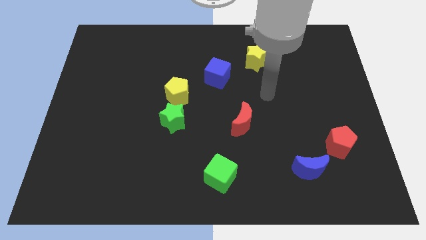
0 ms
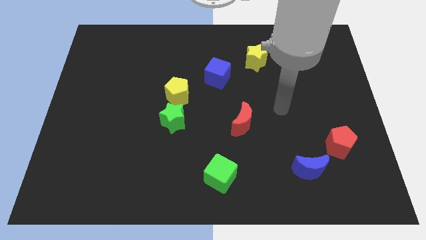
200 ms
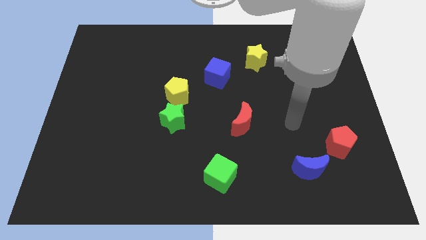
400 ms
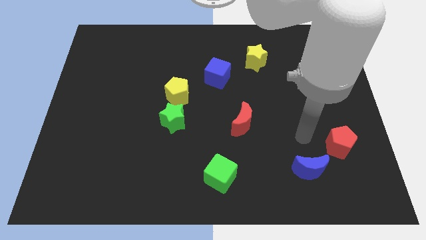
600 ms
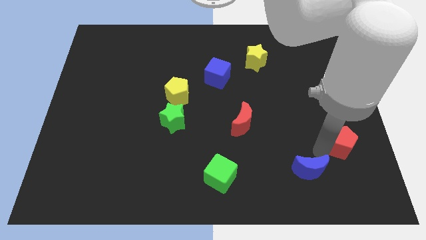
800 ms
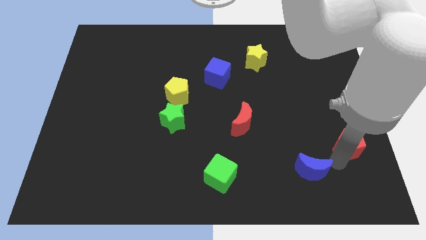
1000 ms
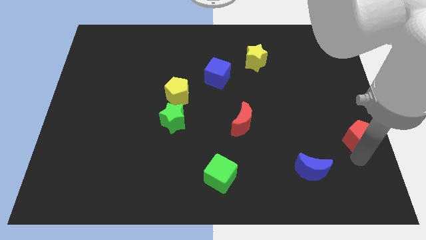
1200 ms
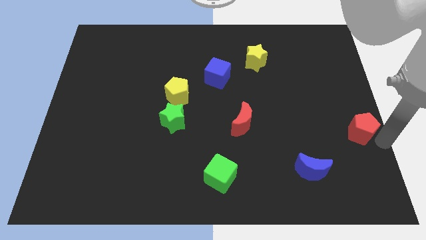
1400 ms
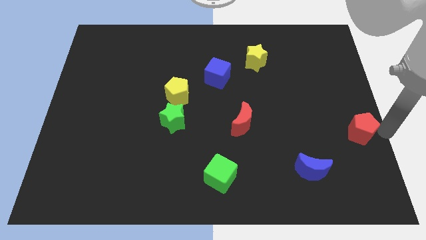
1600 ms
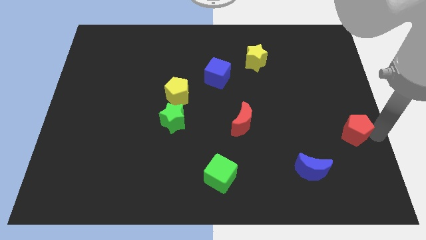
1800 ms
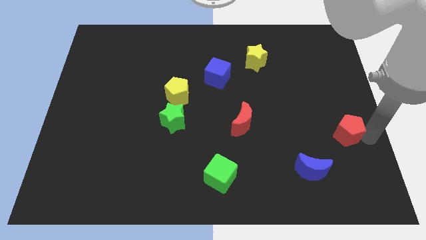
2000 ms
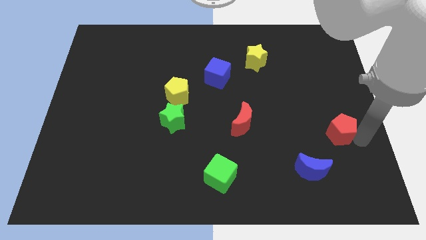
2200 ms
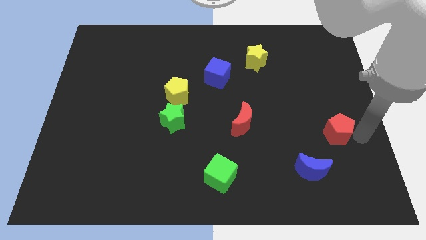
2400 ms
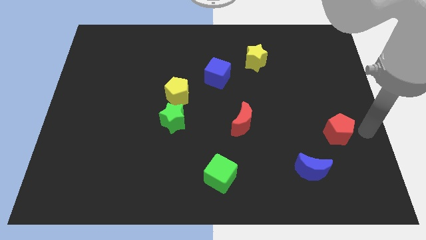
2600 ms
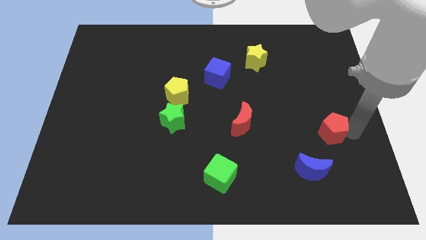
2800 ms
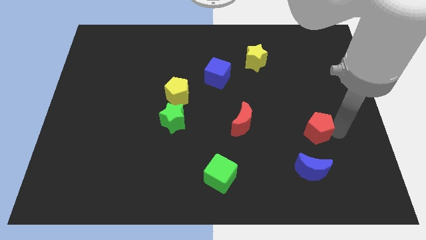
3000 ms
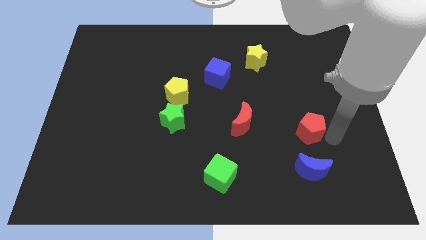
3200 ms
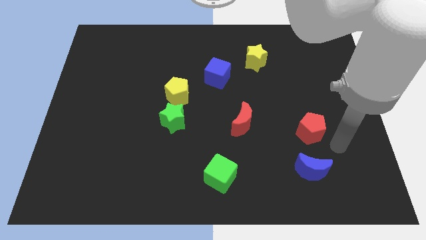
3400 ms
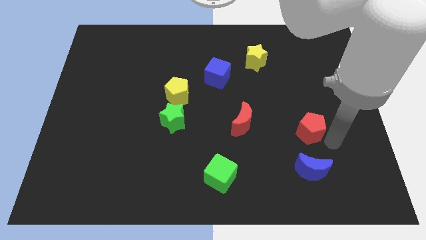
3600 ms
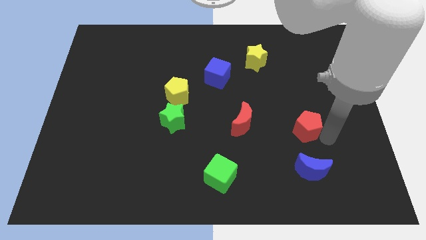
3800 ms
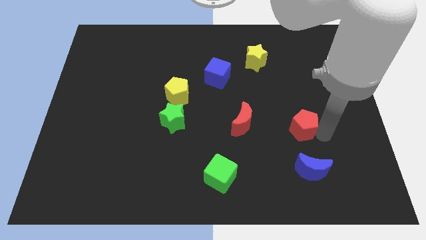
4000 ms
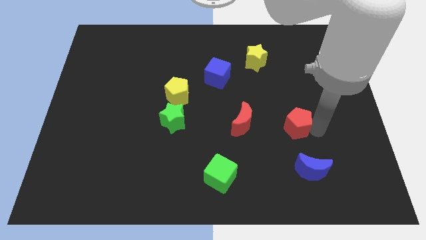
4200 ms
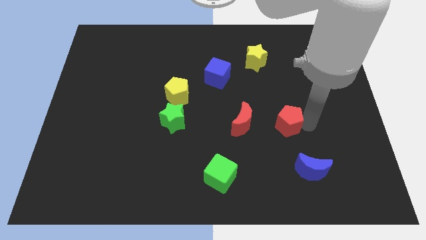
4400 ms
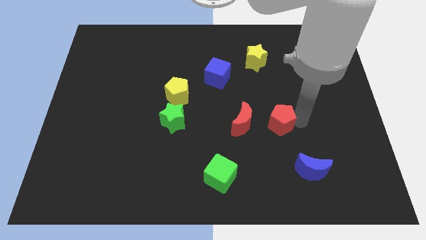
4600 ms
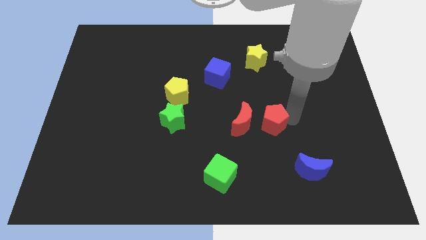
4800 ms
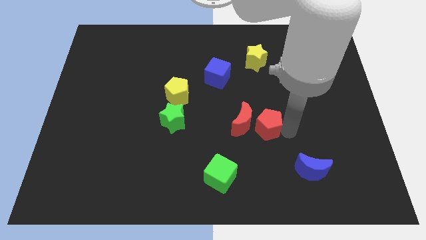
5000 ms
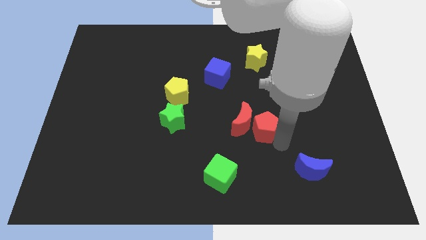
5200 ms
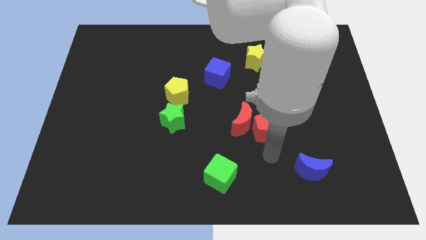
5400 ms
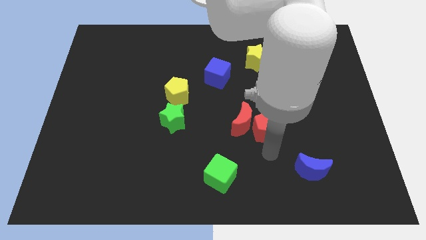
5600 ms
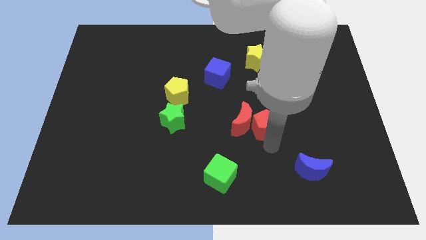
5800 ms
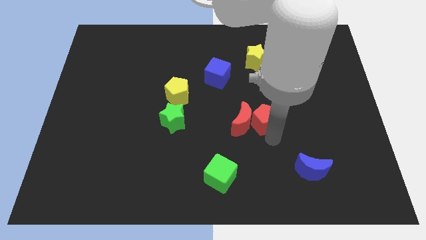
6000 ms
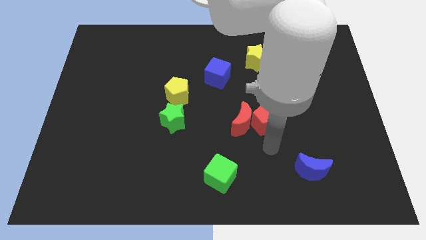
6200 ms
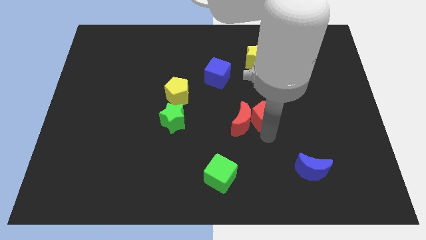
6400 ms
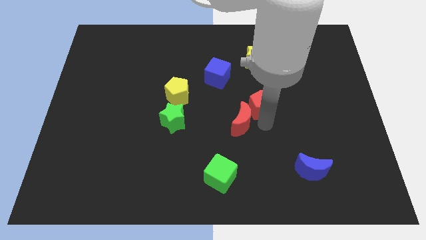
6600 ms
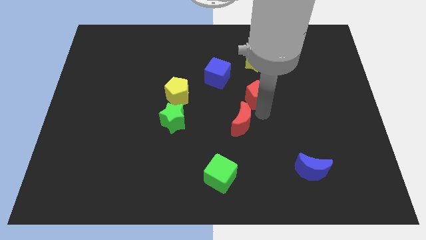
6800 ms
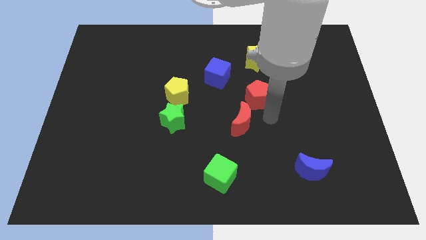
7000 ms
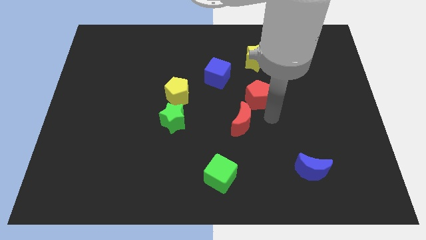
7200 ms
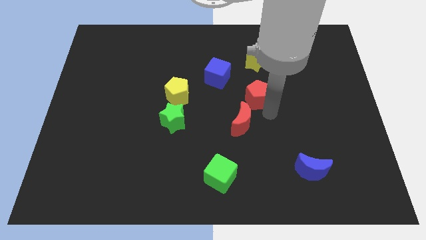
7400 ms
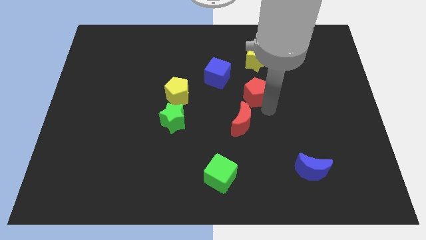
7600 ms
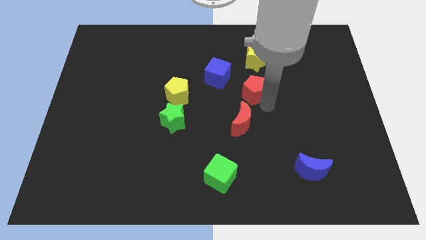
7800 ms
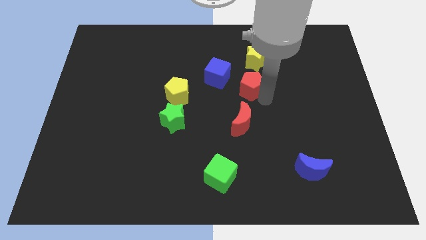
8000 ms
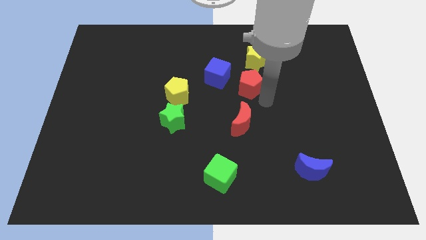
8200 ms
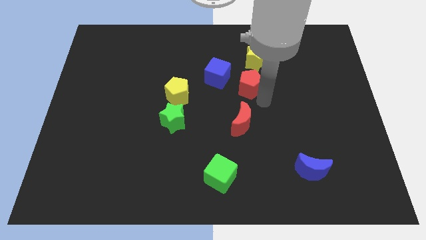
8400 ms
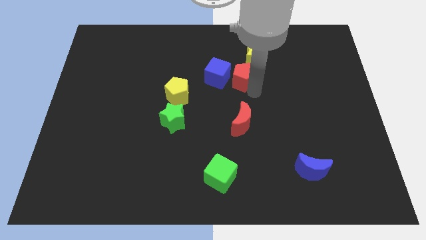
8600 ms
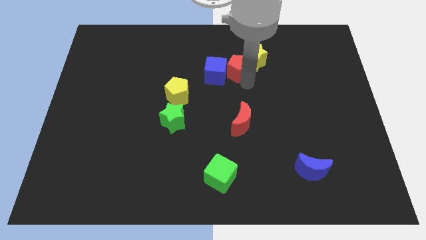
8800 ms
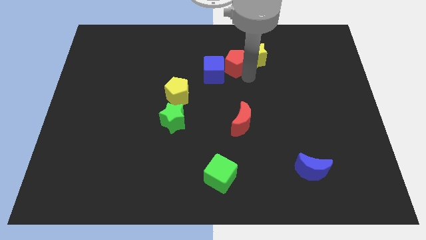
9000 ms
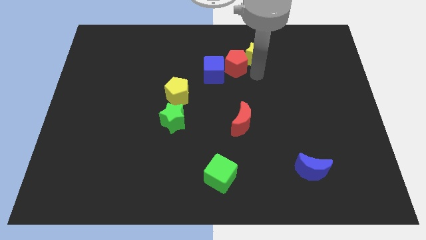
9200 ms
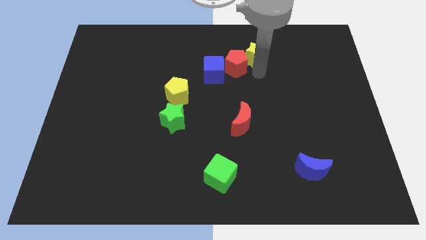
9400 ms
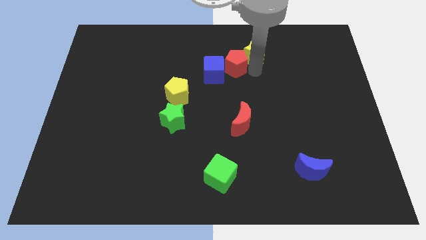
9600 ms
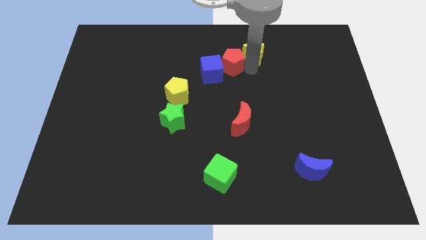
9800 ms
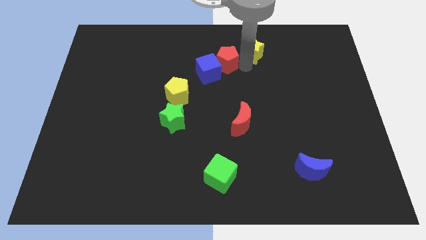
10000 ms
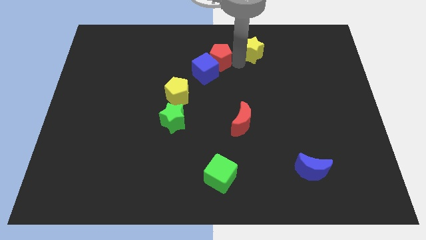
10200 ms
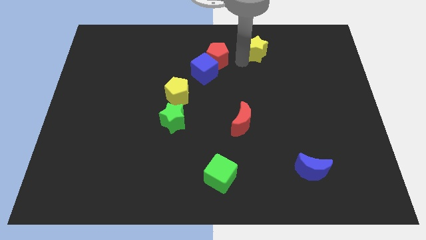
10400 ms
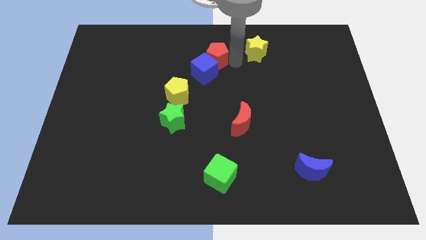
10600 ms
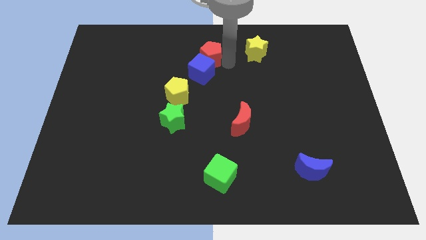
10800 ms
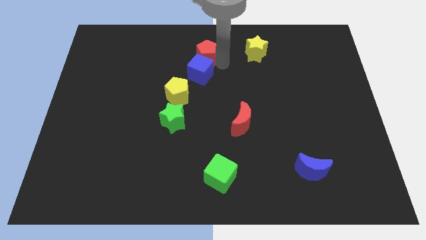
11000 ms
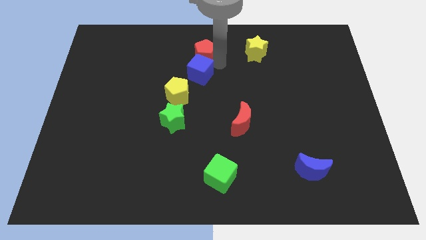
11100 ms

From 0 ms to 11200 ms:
slide the red pentagon to the top left of the blue cube
